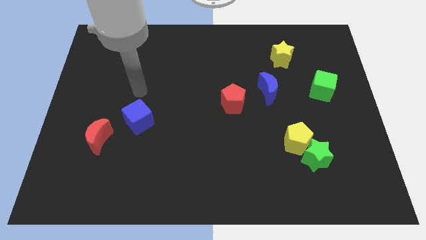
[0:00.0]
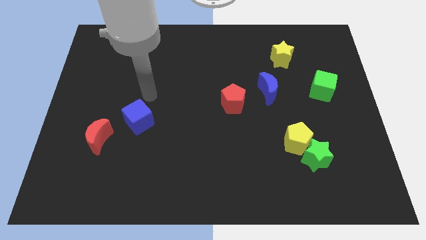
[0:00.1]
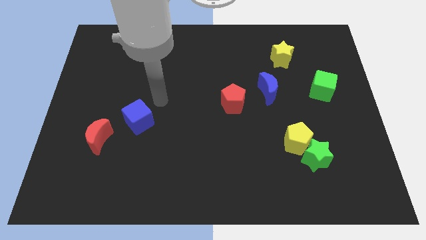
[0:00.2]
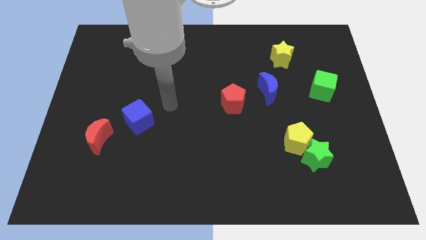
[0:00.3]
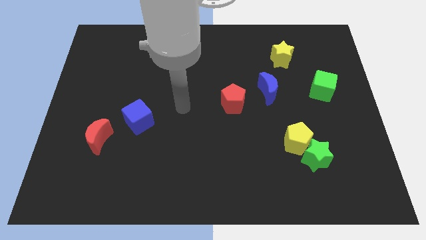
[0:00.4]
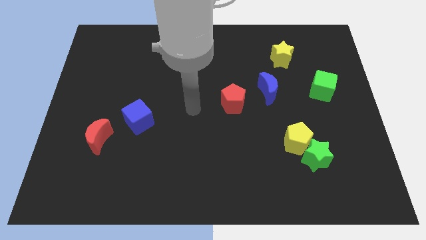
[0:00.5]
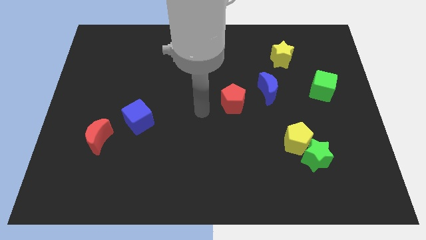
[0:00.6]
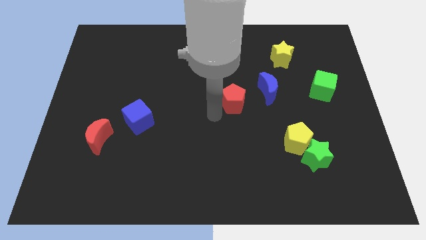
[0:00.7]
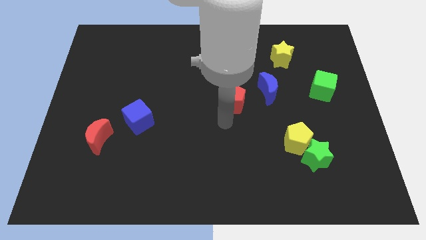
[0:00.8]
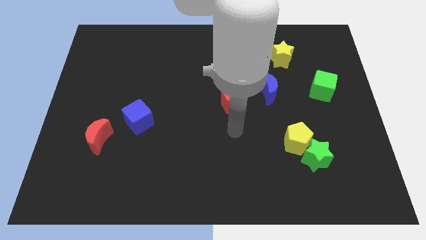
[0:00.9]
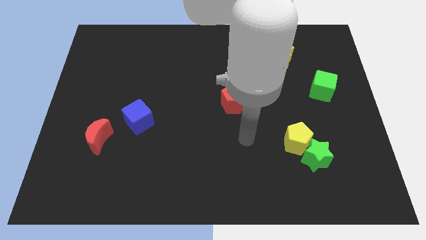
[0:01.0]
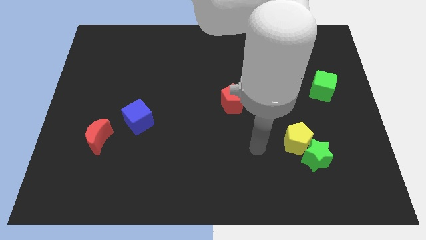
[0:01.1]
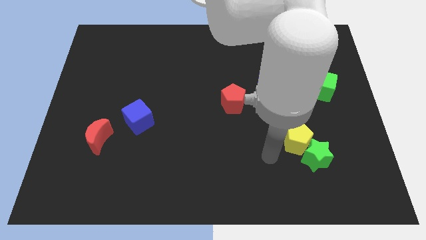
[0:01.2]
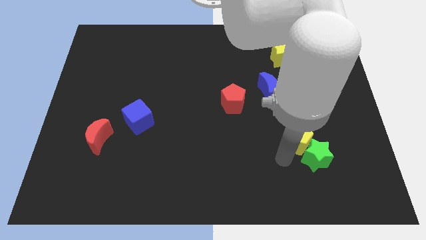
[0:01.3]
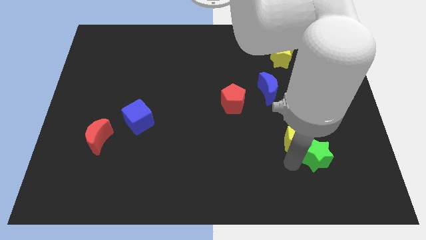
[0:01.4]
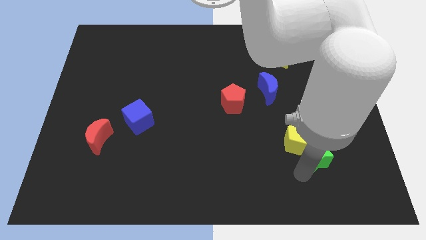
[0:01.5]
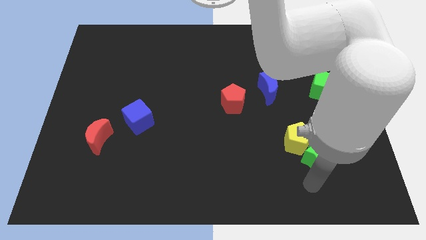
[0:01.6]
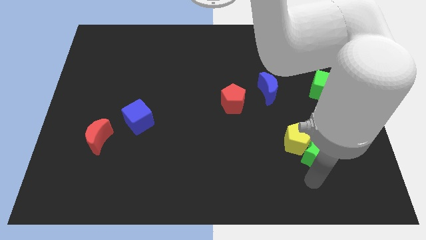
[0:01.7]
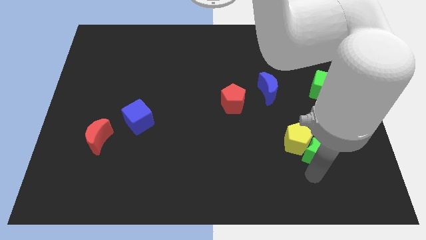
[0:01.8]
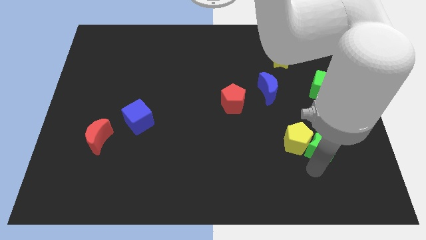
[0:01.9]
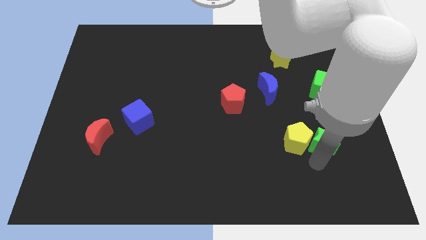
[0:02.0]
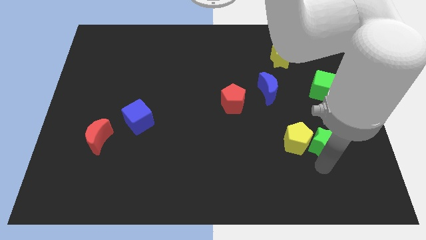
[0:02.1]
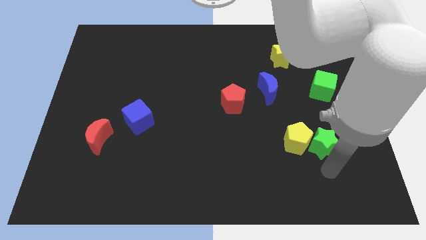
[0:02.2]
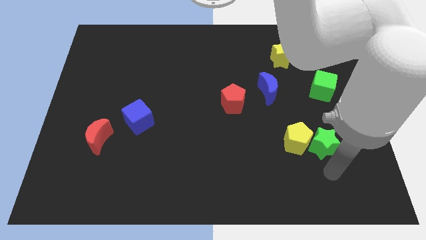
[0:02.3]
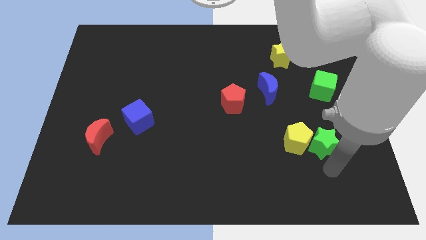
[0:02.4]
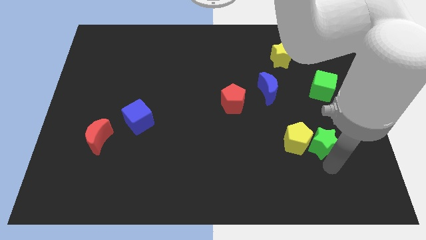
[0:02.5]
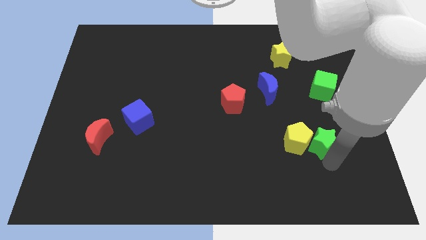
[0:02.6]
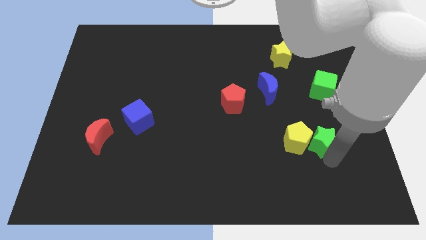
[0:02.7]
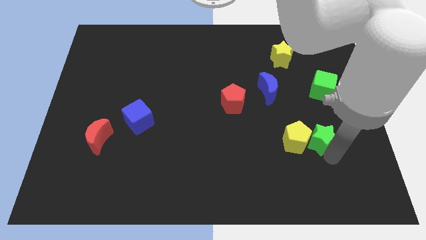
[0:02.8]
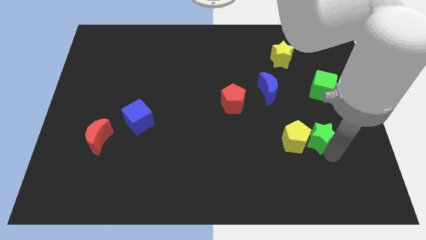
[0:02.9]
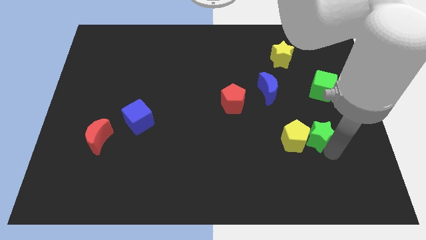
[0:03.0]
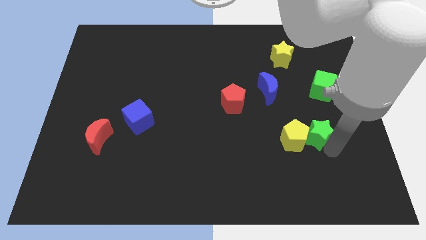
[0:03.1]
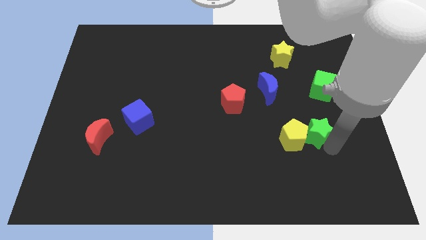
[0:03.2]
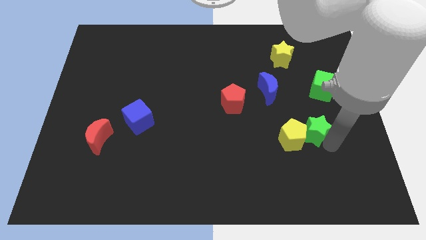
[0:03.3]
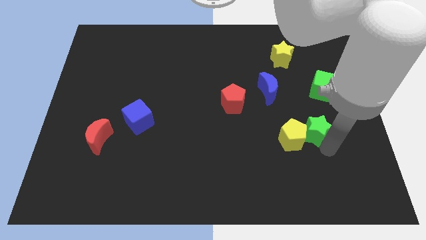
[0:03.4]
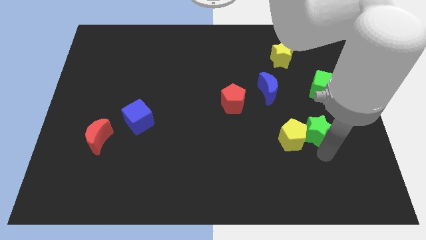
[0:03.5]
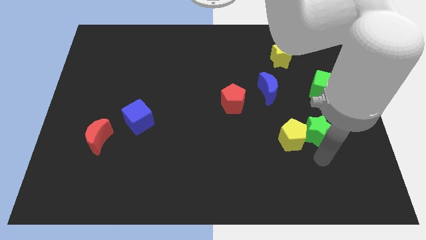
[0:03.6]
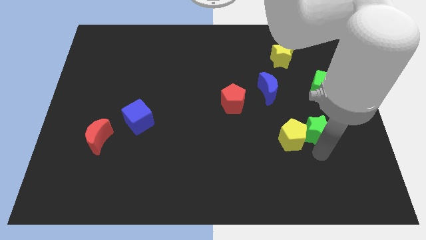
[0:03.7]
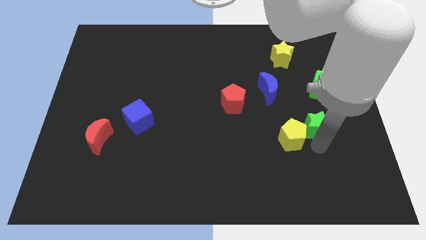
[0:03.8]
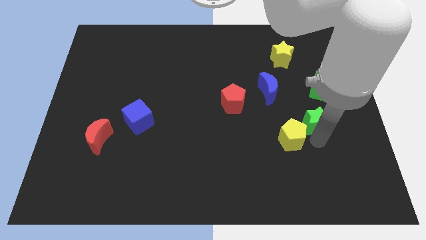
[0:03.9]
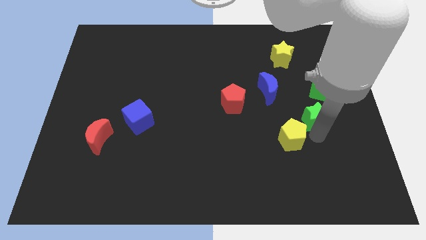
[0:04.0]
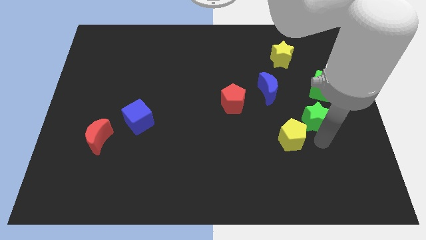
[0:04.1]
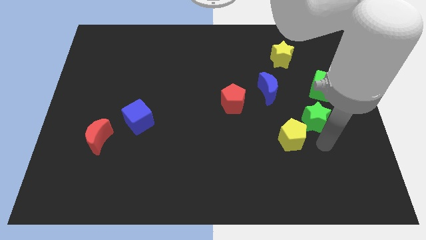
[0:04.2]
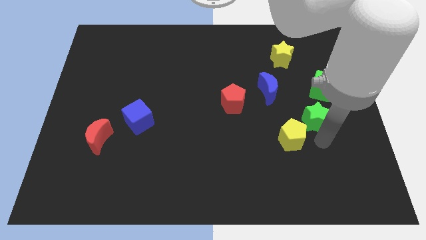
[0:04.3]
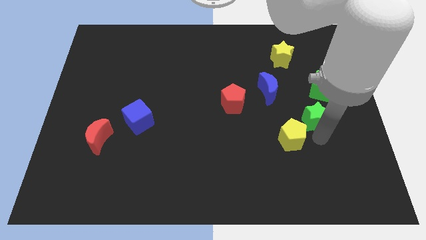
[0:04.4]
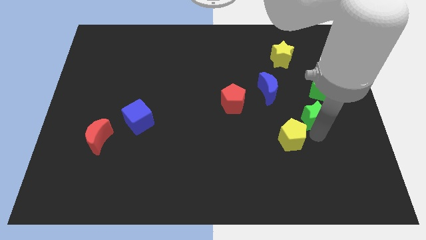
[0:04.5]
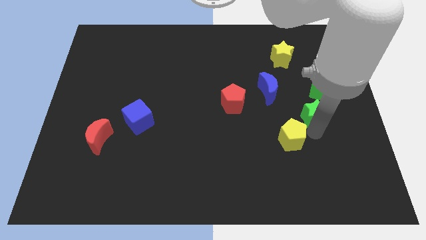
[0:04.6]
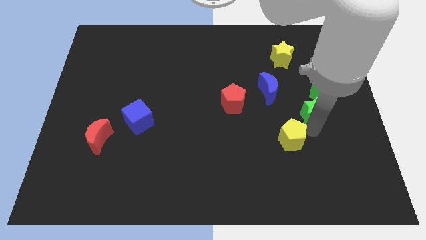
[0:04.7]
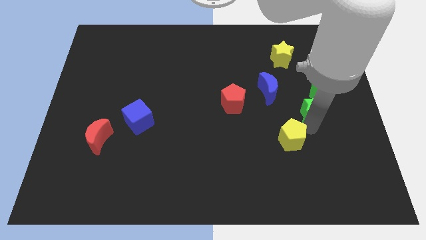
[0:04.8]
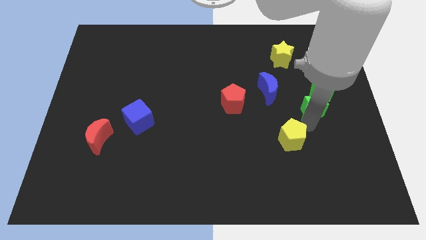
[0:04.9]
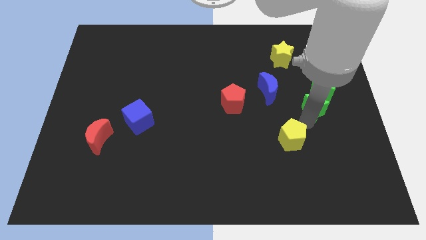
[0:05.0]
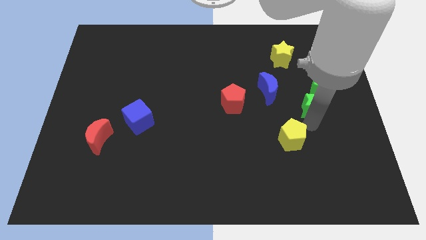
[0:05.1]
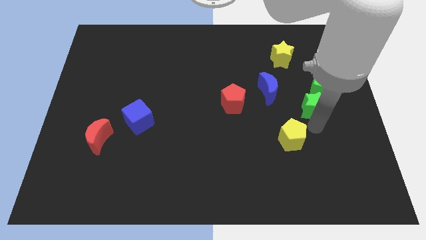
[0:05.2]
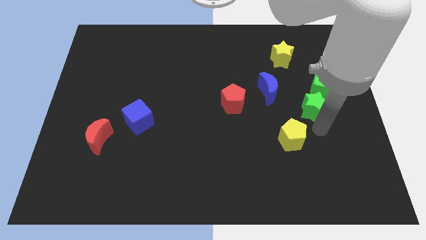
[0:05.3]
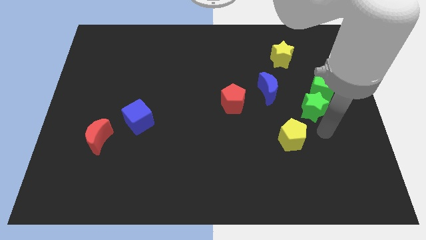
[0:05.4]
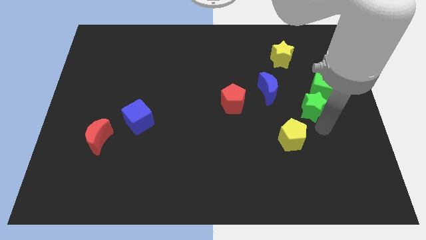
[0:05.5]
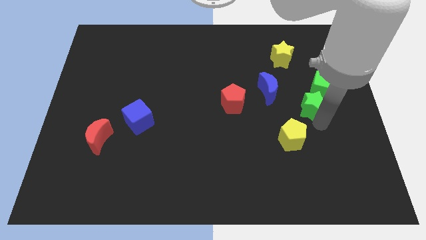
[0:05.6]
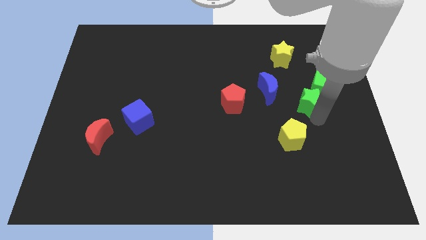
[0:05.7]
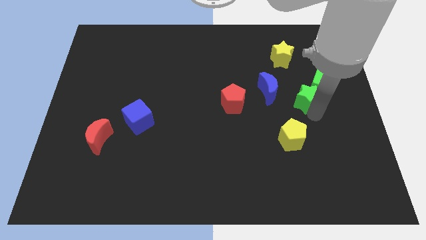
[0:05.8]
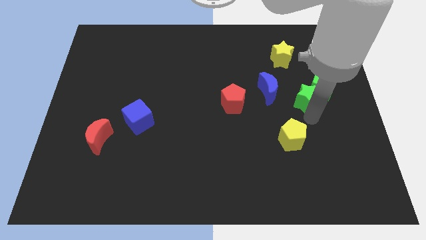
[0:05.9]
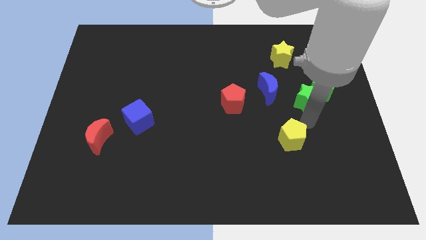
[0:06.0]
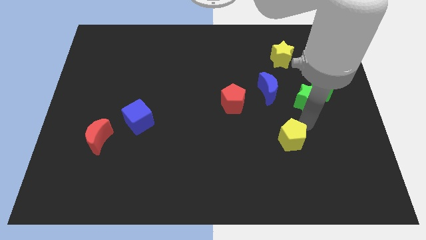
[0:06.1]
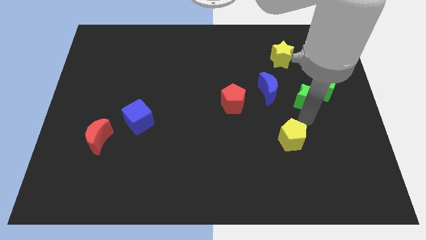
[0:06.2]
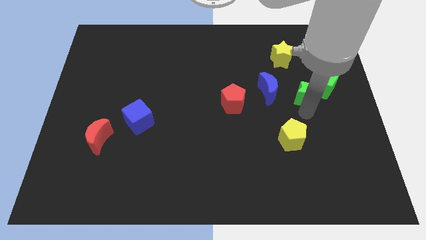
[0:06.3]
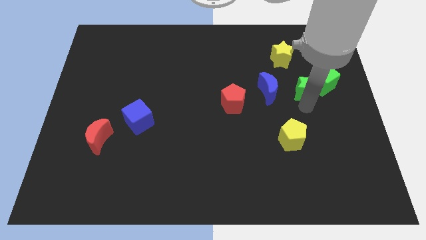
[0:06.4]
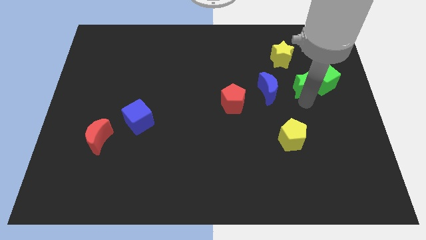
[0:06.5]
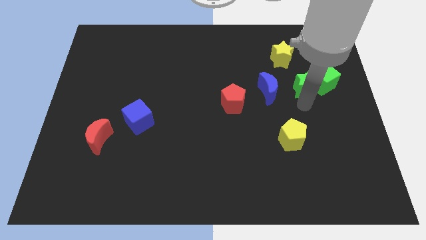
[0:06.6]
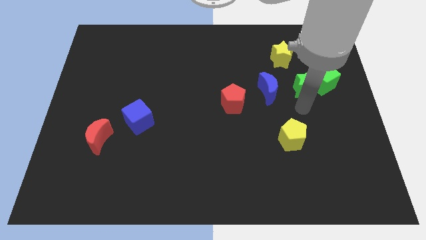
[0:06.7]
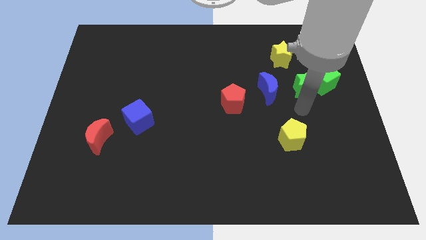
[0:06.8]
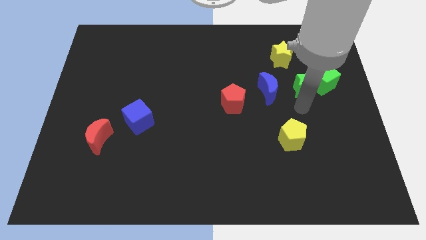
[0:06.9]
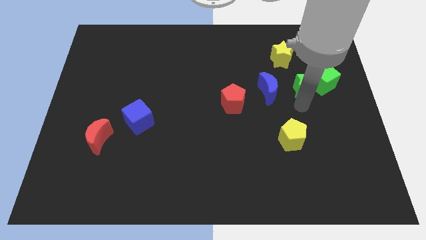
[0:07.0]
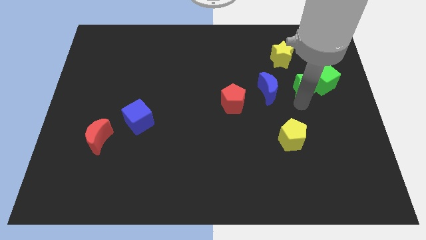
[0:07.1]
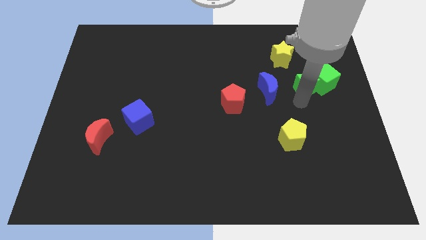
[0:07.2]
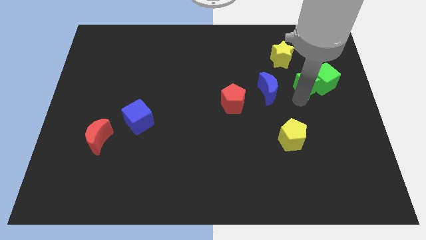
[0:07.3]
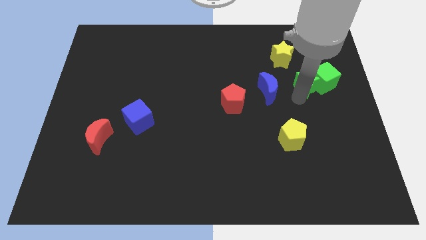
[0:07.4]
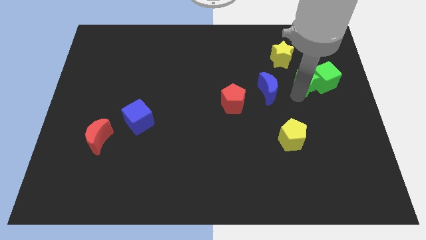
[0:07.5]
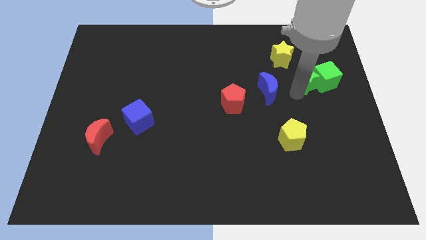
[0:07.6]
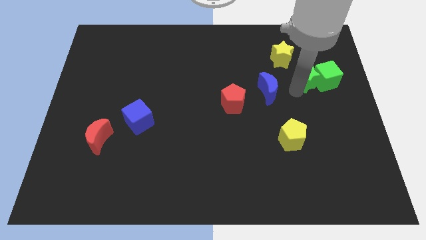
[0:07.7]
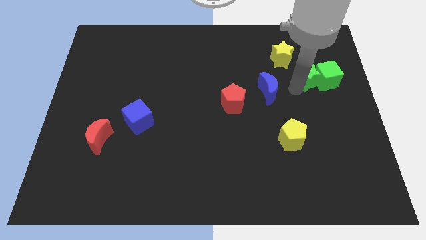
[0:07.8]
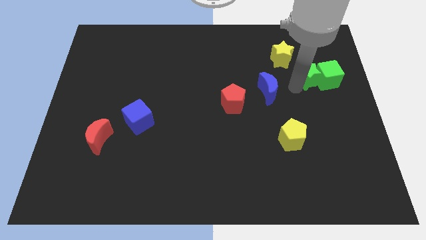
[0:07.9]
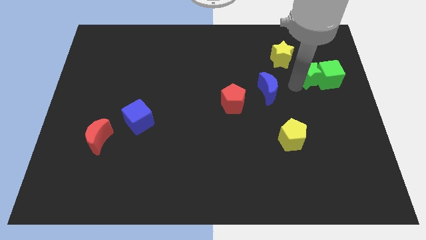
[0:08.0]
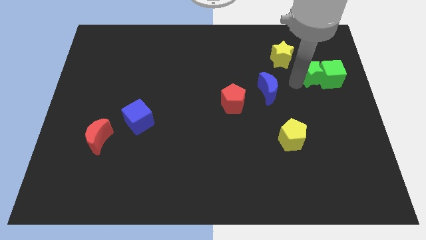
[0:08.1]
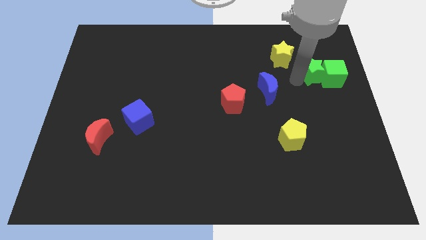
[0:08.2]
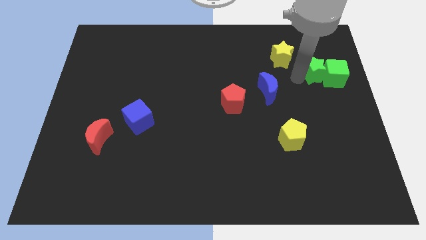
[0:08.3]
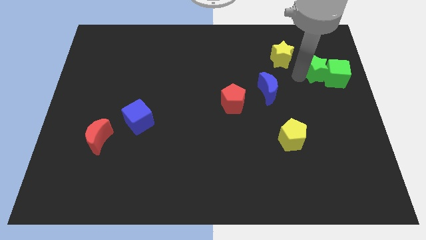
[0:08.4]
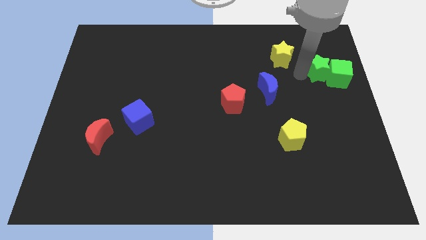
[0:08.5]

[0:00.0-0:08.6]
move the green star to the right of the yellow star
